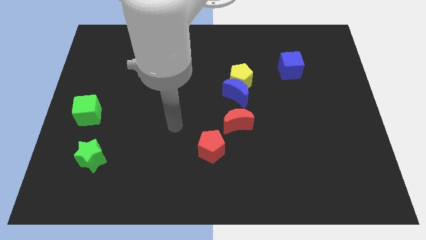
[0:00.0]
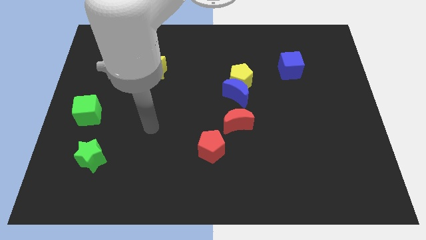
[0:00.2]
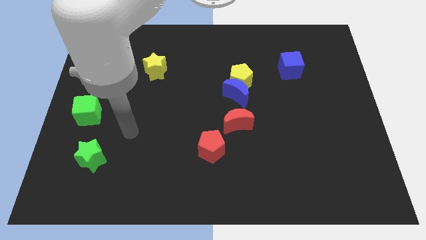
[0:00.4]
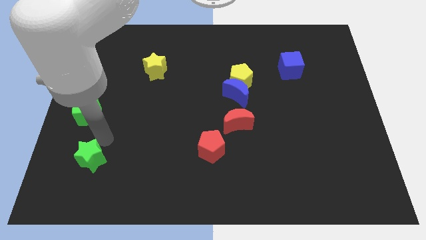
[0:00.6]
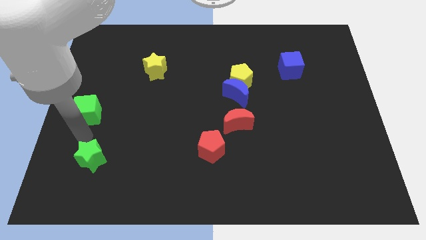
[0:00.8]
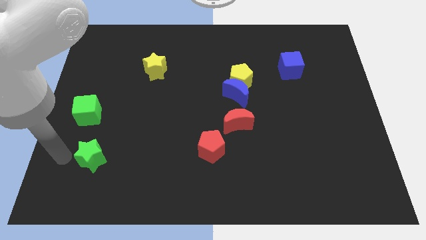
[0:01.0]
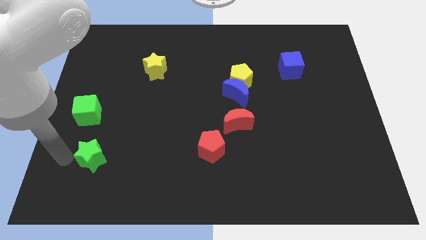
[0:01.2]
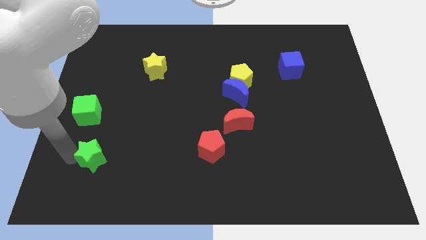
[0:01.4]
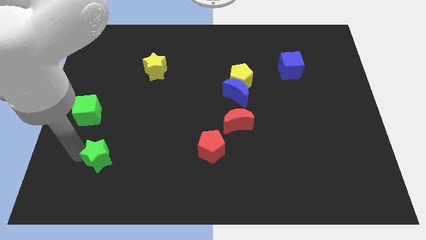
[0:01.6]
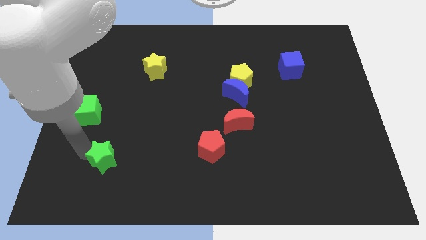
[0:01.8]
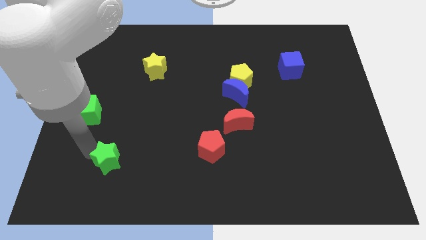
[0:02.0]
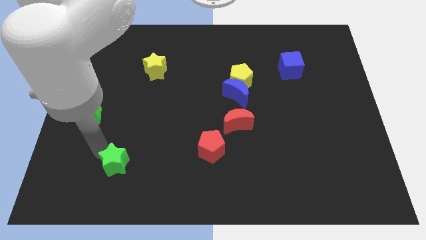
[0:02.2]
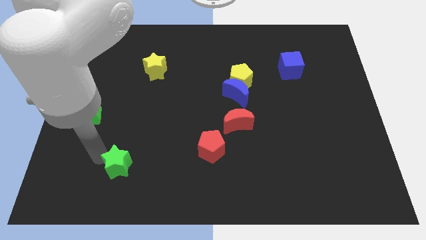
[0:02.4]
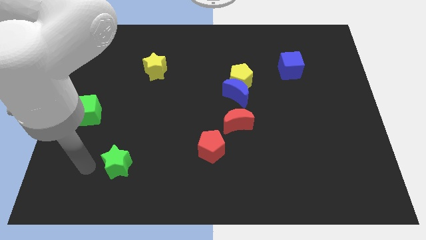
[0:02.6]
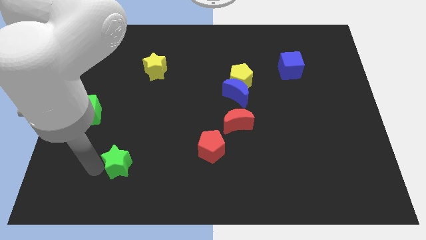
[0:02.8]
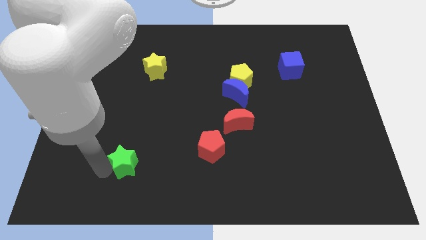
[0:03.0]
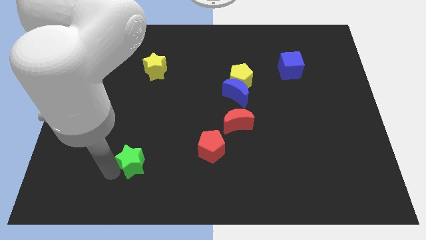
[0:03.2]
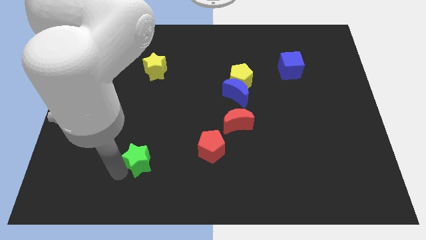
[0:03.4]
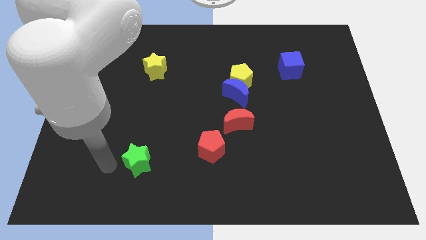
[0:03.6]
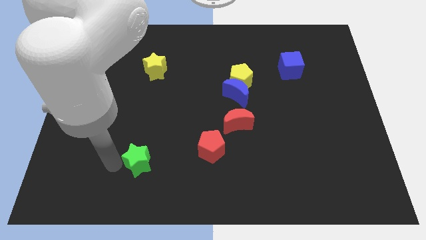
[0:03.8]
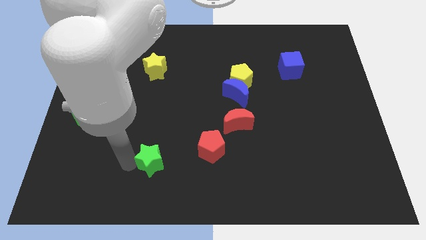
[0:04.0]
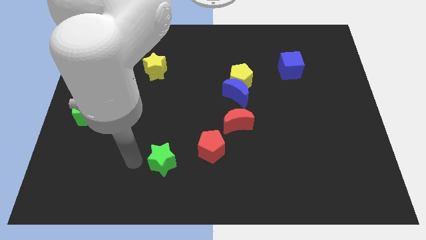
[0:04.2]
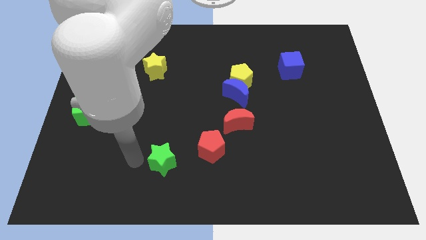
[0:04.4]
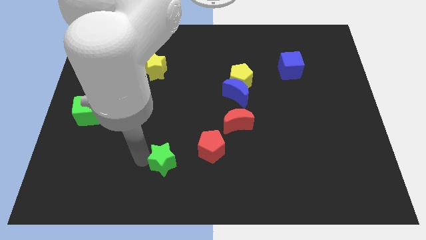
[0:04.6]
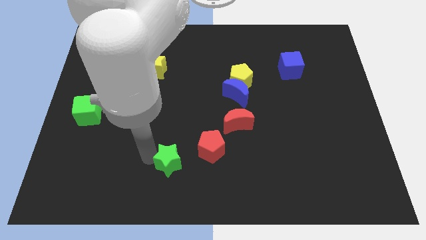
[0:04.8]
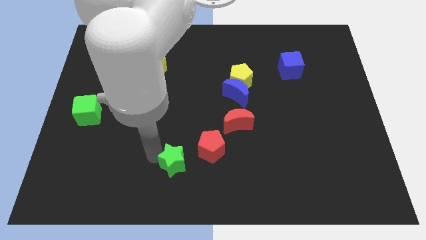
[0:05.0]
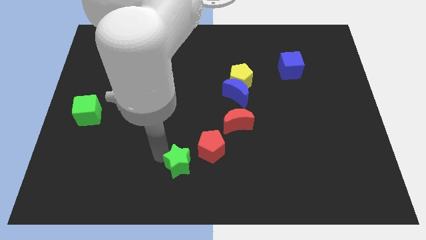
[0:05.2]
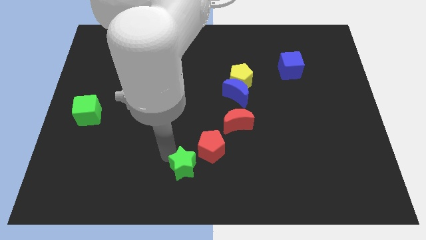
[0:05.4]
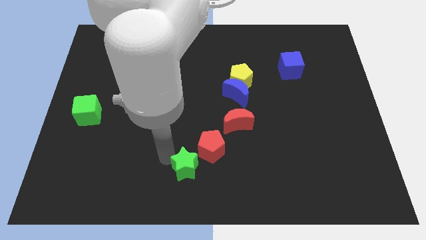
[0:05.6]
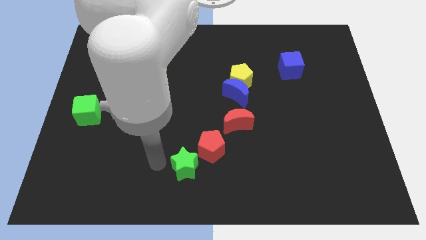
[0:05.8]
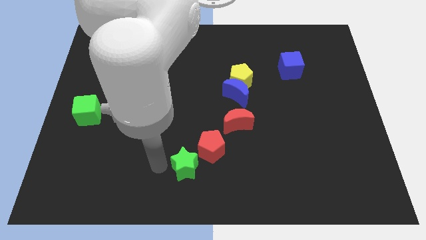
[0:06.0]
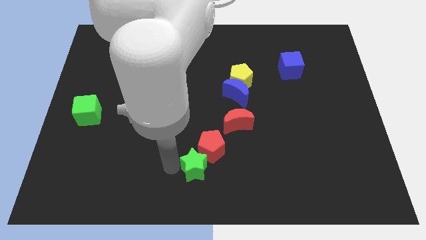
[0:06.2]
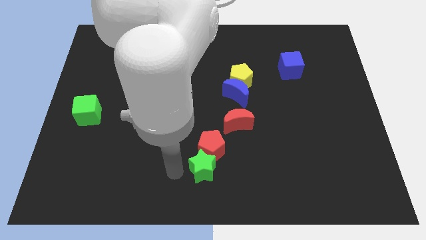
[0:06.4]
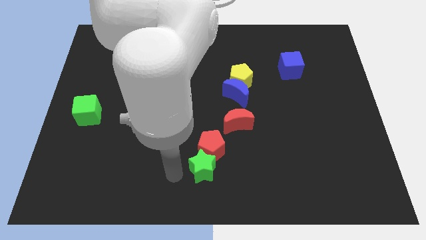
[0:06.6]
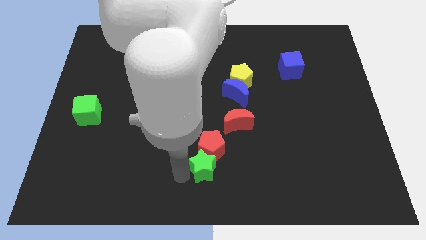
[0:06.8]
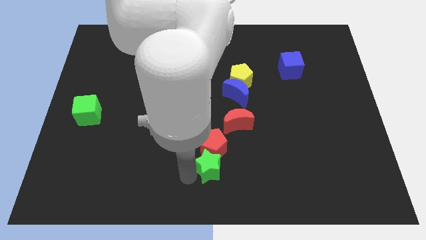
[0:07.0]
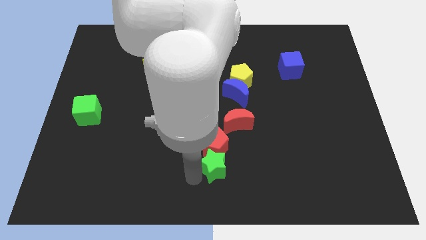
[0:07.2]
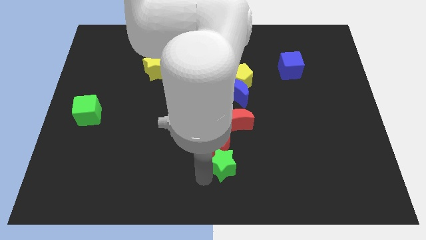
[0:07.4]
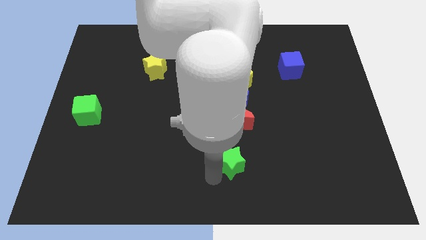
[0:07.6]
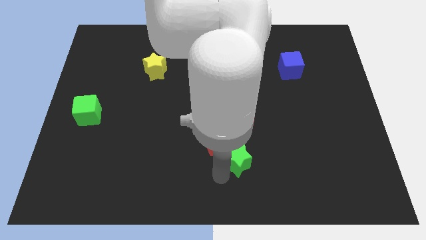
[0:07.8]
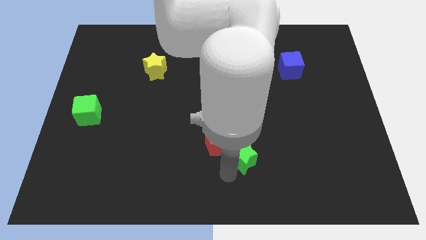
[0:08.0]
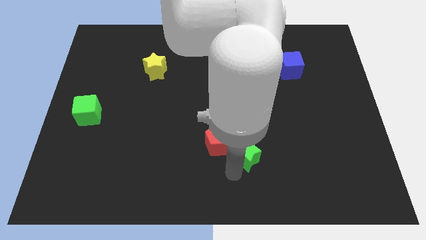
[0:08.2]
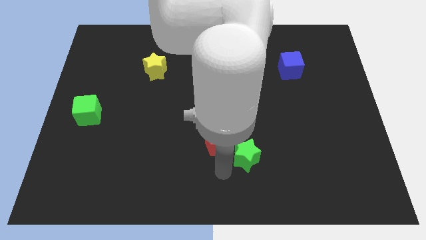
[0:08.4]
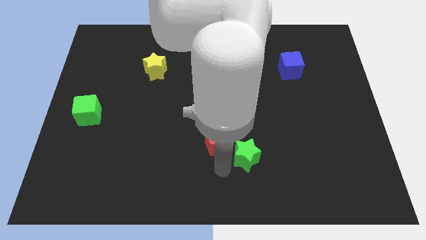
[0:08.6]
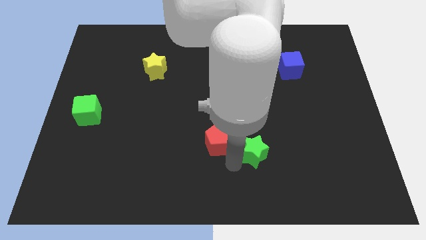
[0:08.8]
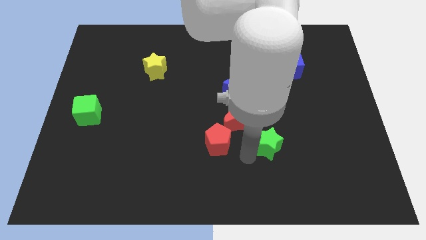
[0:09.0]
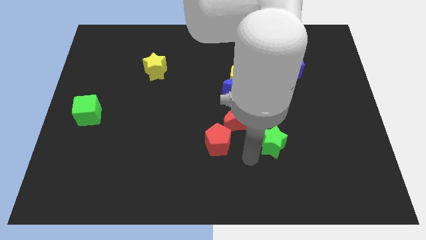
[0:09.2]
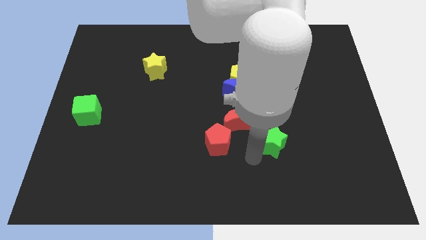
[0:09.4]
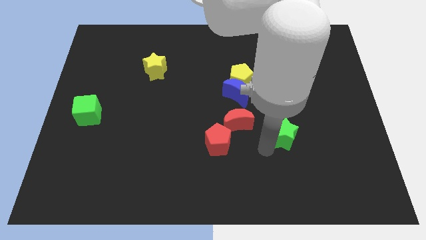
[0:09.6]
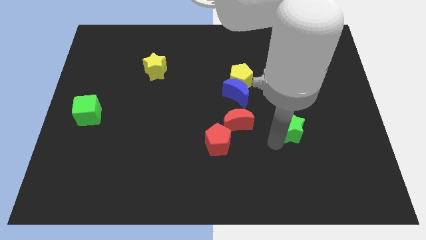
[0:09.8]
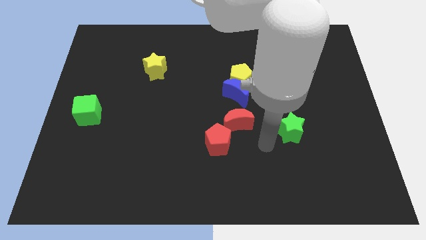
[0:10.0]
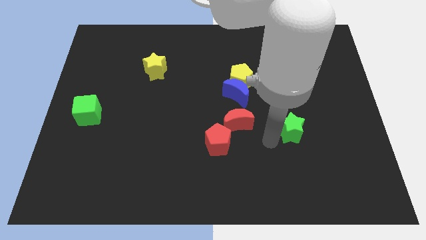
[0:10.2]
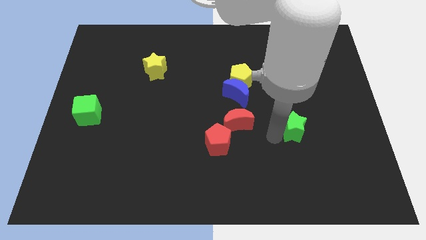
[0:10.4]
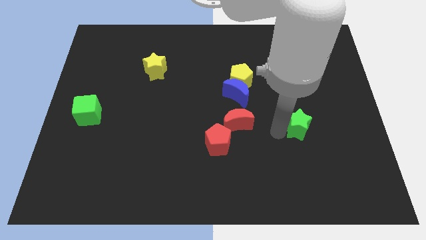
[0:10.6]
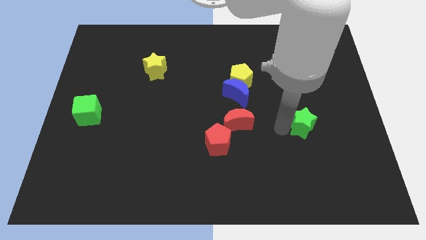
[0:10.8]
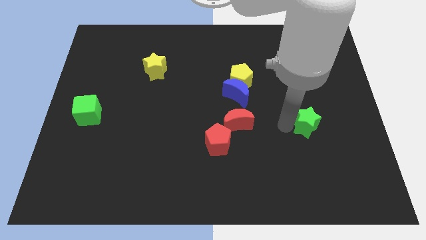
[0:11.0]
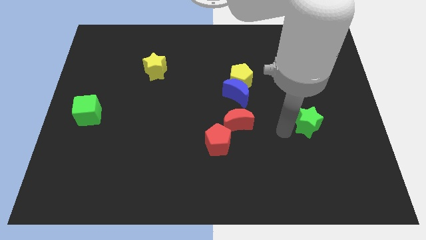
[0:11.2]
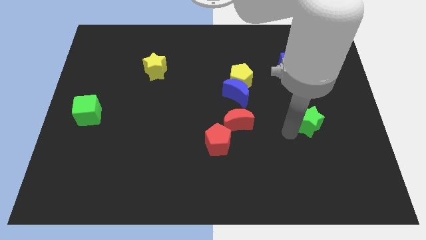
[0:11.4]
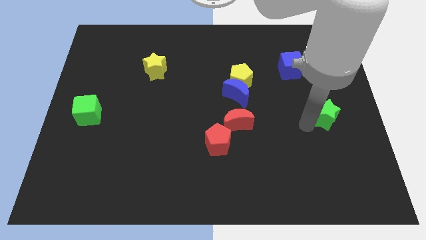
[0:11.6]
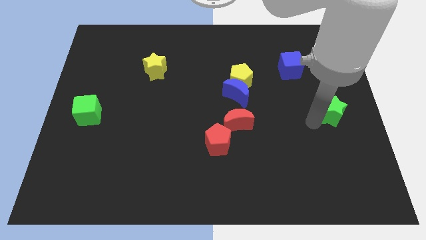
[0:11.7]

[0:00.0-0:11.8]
put the green star to the right side
